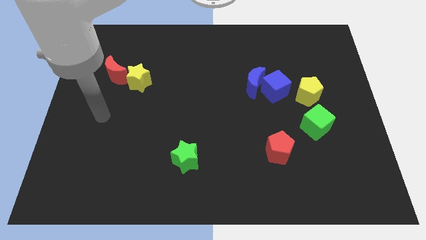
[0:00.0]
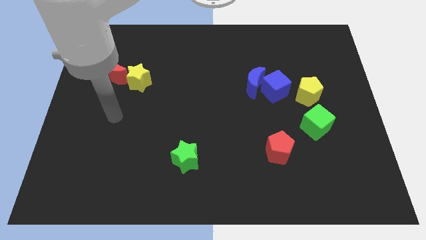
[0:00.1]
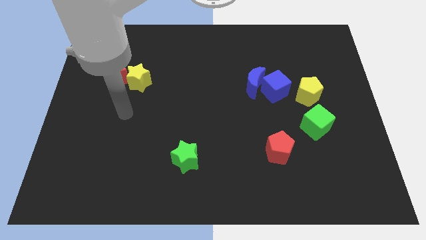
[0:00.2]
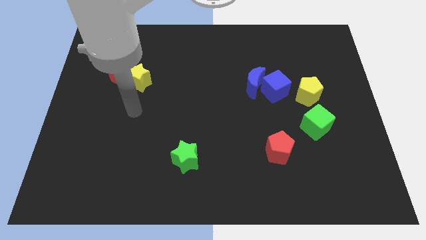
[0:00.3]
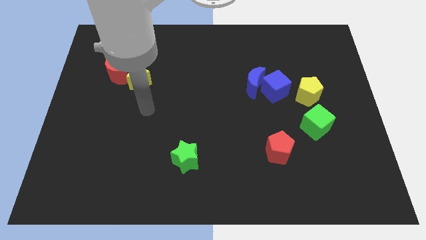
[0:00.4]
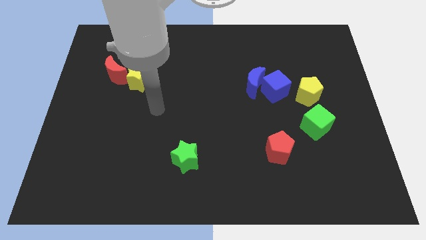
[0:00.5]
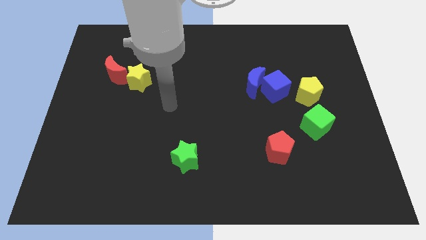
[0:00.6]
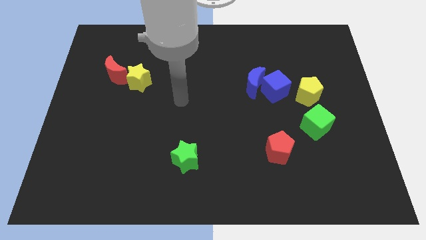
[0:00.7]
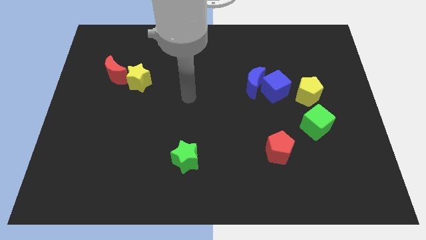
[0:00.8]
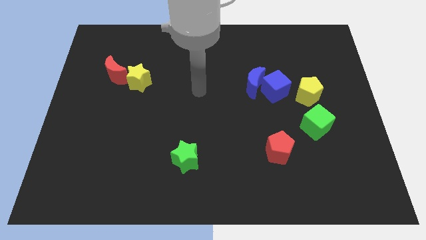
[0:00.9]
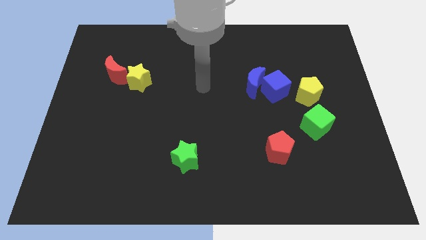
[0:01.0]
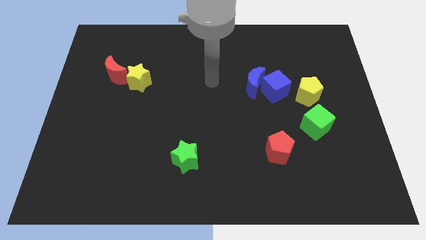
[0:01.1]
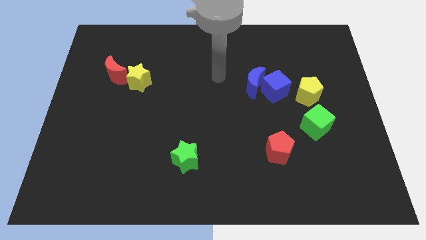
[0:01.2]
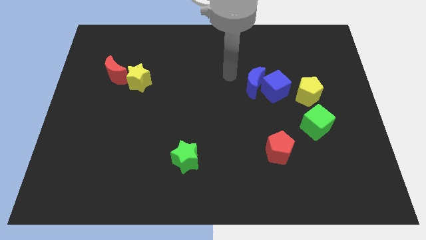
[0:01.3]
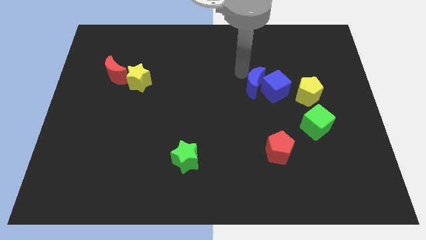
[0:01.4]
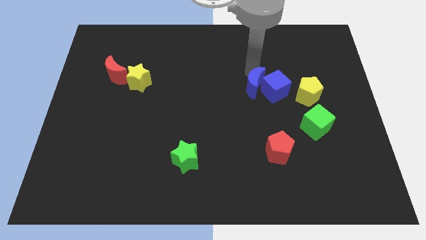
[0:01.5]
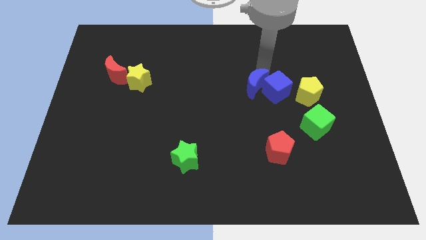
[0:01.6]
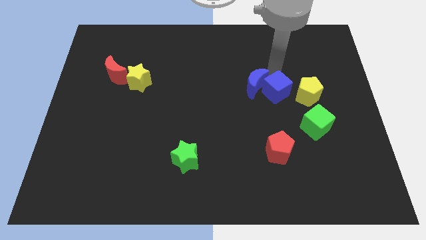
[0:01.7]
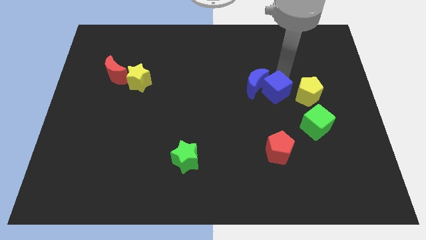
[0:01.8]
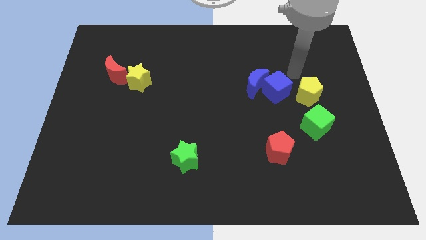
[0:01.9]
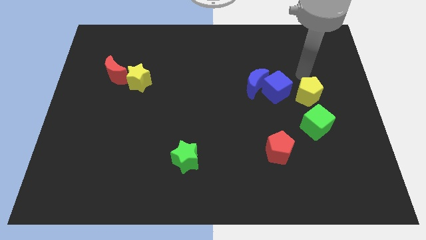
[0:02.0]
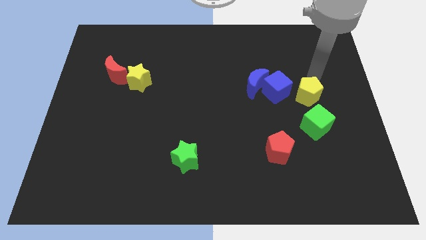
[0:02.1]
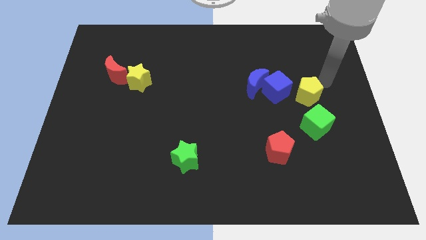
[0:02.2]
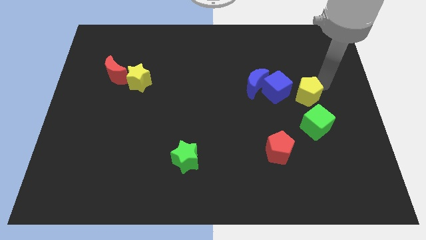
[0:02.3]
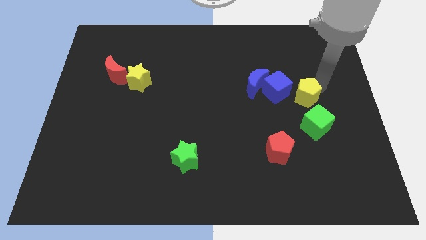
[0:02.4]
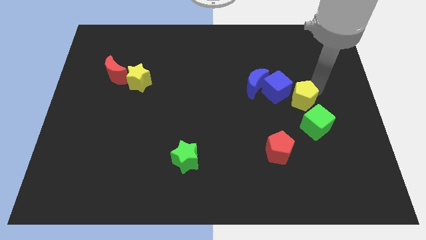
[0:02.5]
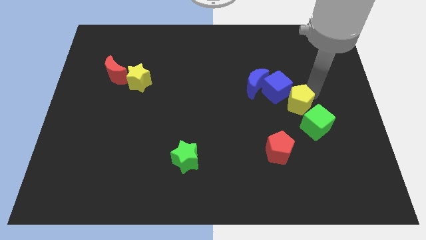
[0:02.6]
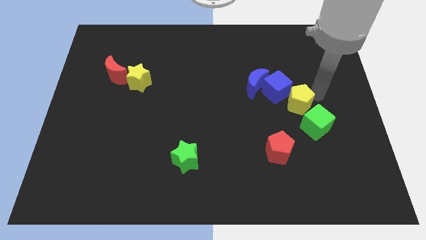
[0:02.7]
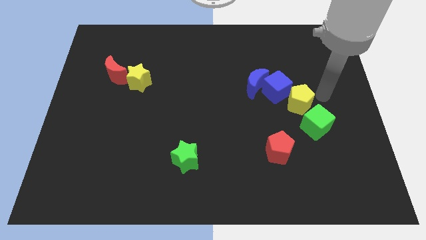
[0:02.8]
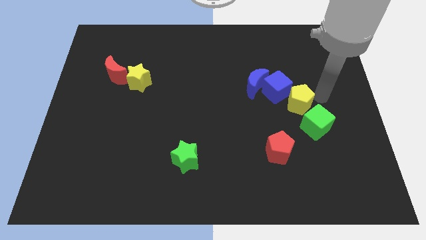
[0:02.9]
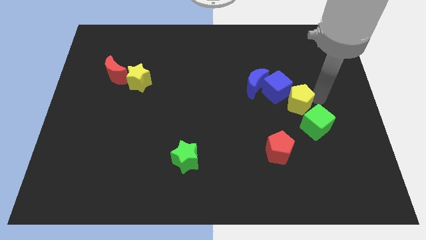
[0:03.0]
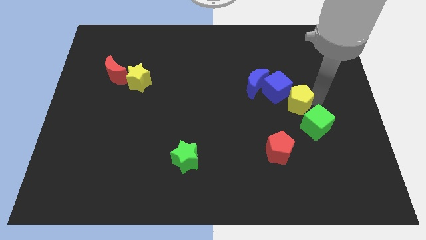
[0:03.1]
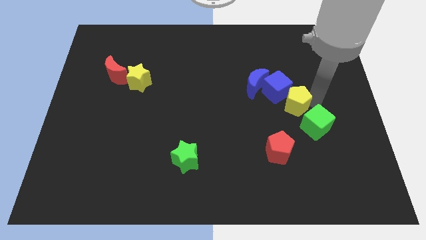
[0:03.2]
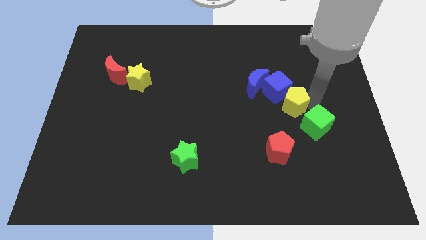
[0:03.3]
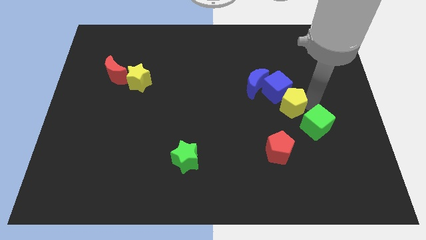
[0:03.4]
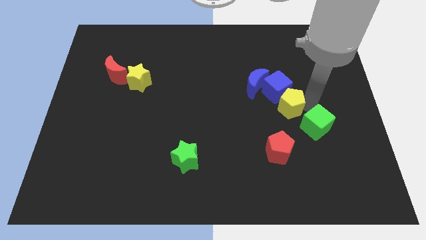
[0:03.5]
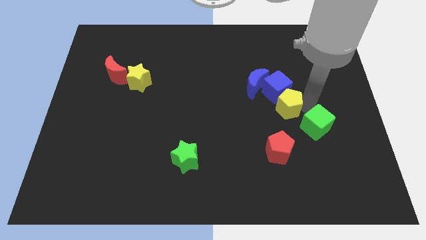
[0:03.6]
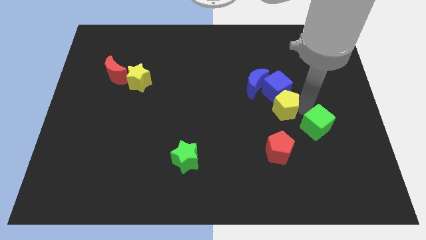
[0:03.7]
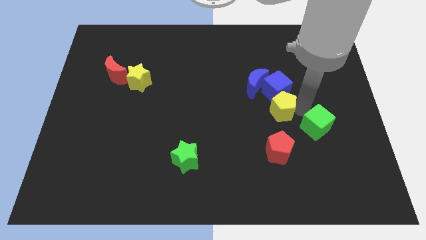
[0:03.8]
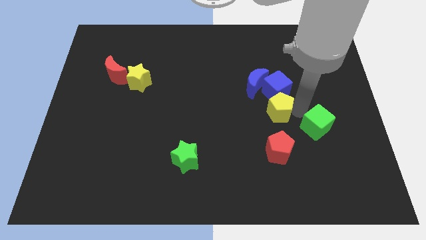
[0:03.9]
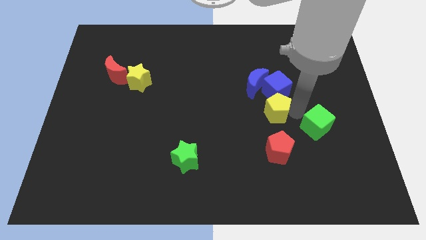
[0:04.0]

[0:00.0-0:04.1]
move the yellow pentagon a bit to the left

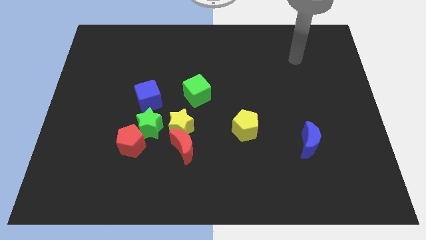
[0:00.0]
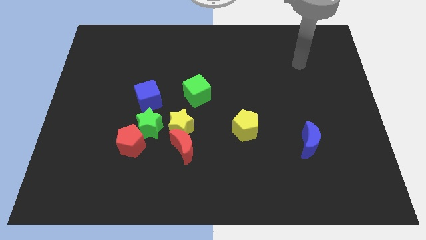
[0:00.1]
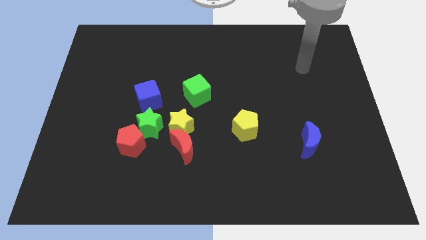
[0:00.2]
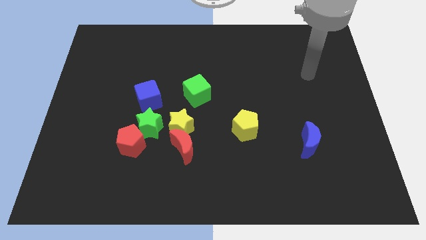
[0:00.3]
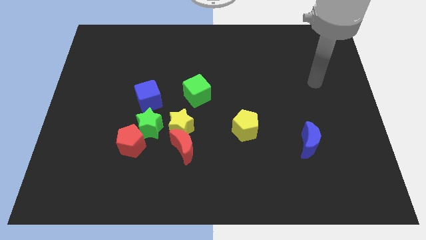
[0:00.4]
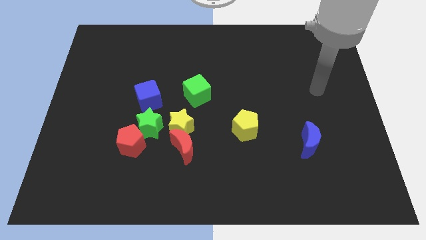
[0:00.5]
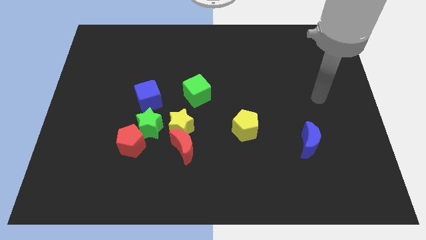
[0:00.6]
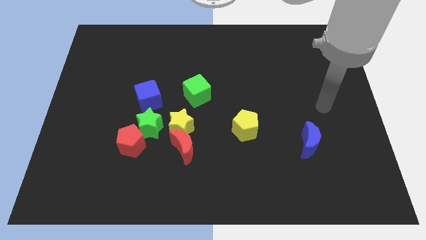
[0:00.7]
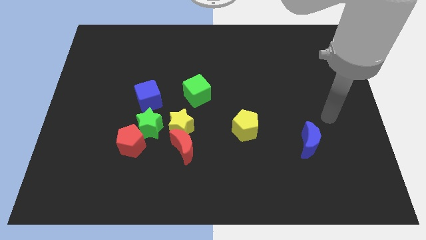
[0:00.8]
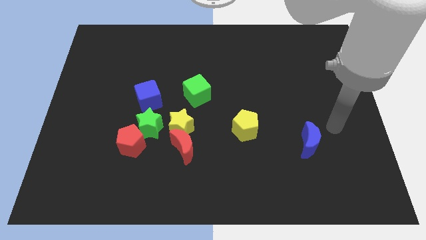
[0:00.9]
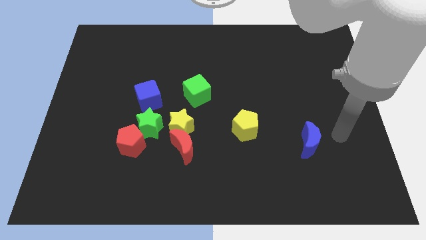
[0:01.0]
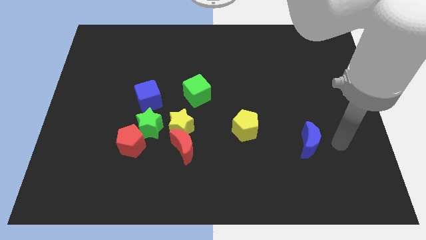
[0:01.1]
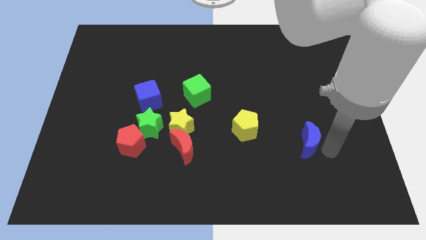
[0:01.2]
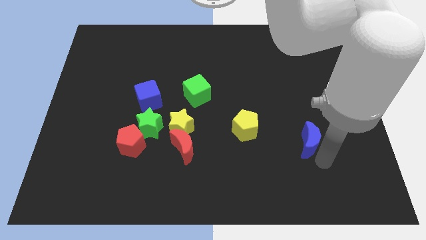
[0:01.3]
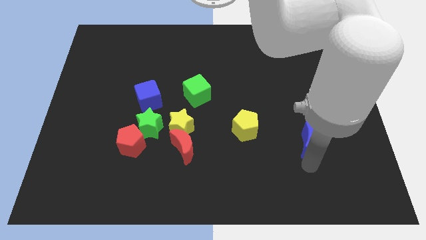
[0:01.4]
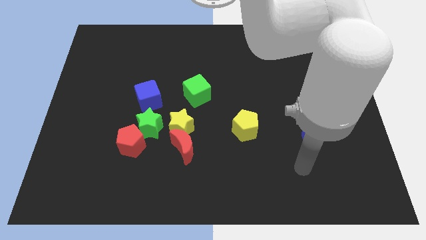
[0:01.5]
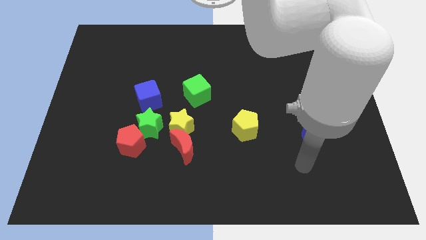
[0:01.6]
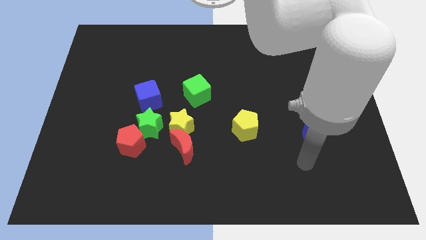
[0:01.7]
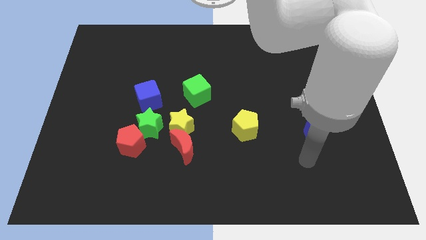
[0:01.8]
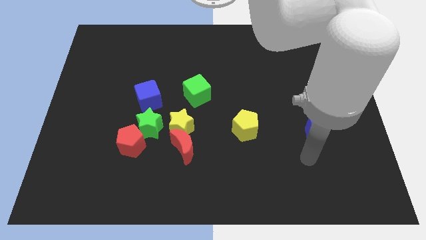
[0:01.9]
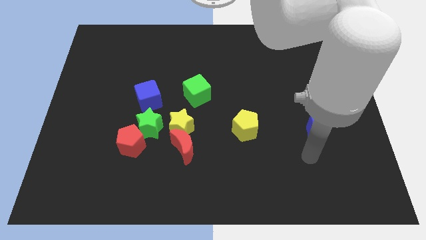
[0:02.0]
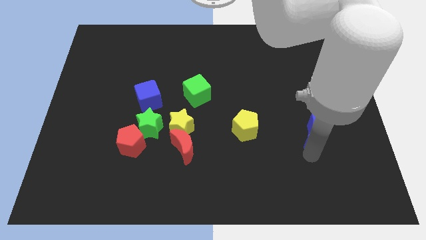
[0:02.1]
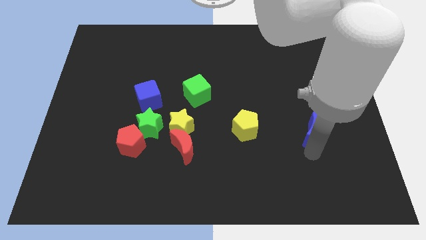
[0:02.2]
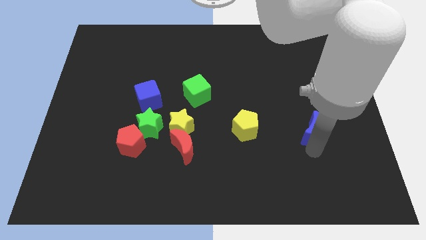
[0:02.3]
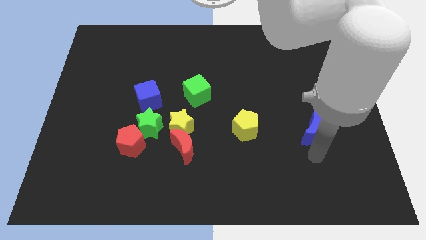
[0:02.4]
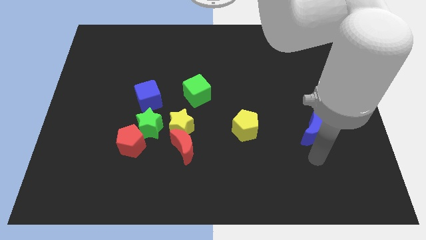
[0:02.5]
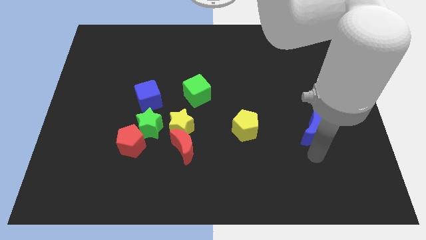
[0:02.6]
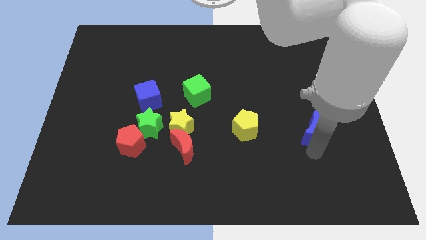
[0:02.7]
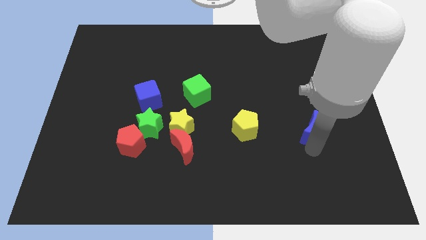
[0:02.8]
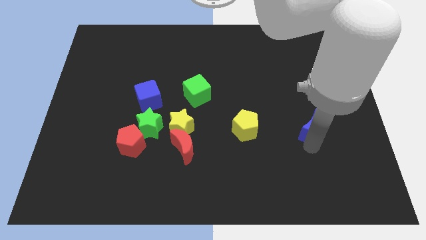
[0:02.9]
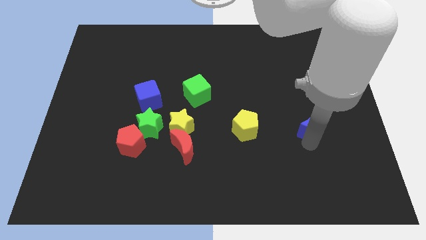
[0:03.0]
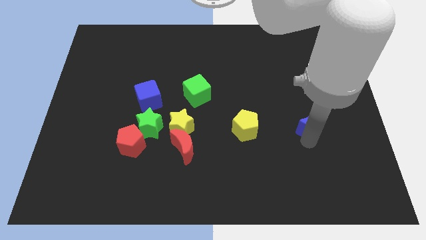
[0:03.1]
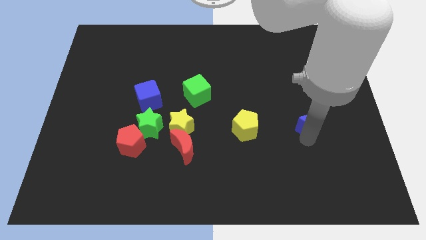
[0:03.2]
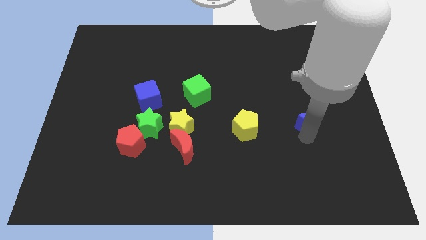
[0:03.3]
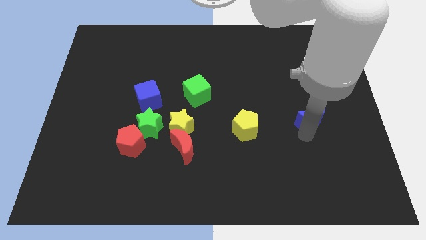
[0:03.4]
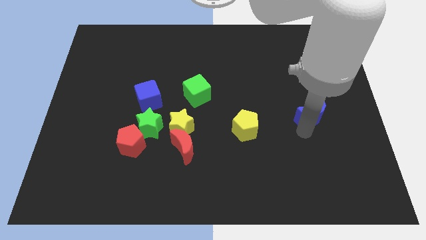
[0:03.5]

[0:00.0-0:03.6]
push the blue moon somewhat up
